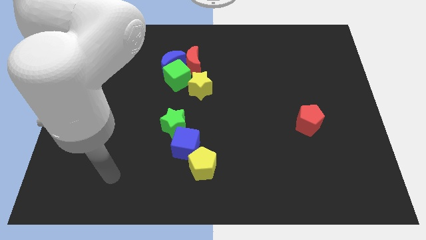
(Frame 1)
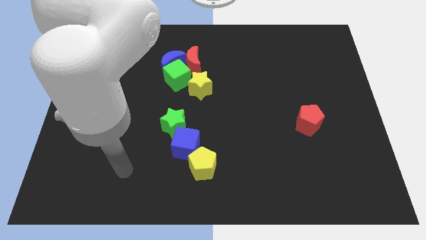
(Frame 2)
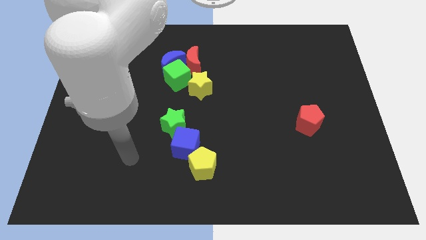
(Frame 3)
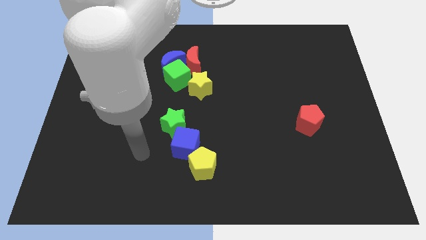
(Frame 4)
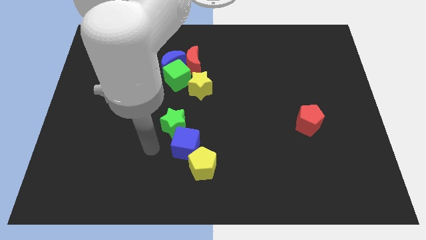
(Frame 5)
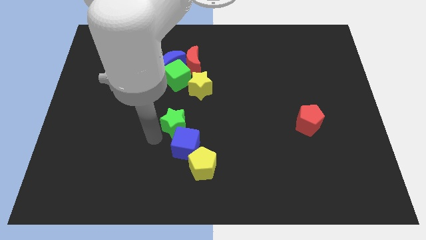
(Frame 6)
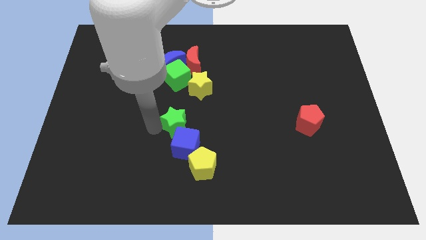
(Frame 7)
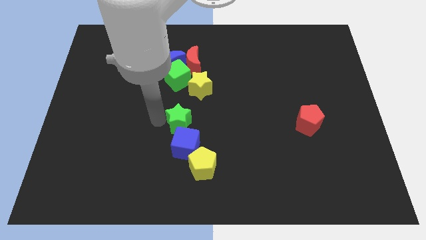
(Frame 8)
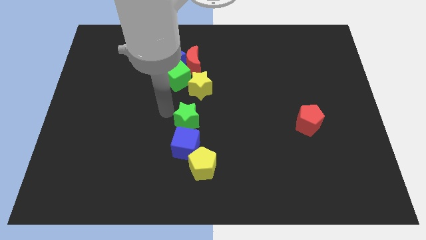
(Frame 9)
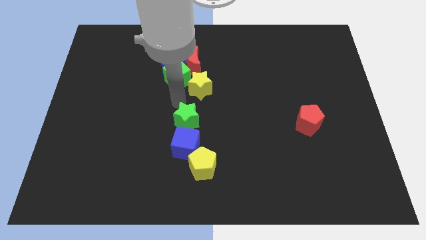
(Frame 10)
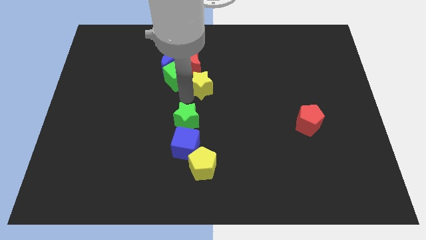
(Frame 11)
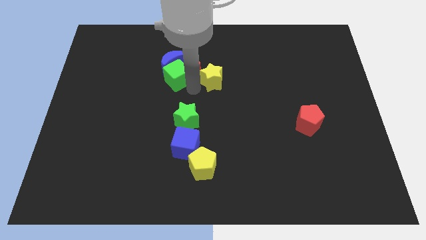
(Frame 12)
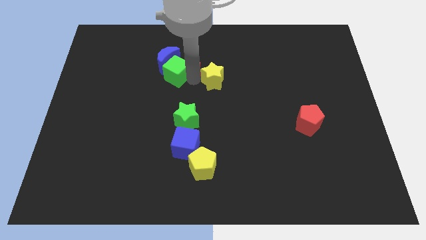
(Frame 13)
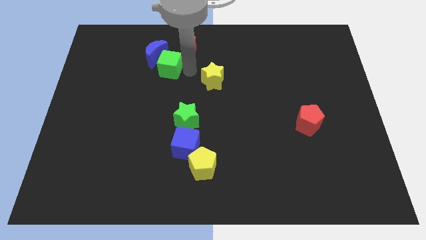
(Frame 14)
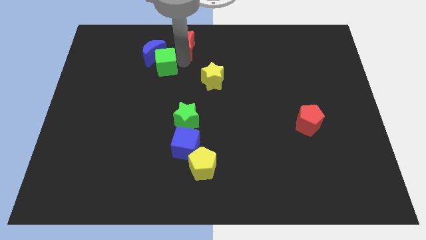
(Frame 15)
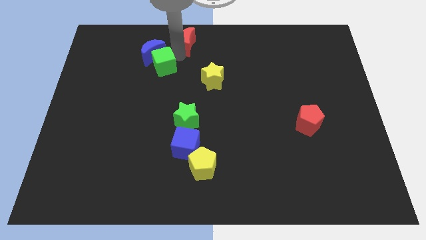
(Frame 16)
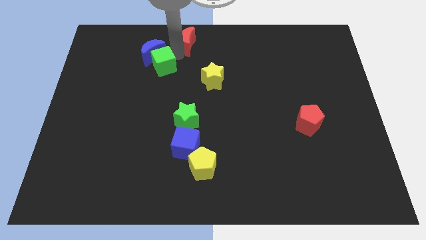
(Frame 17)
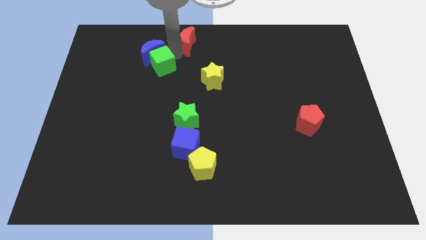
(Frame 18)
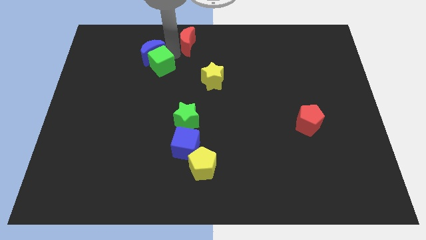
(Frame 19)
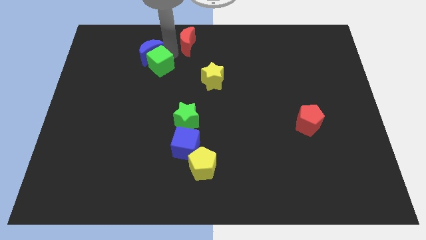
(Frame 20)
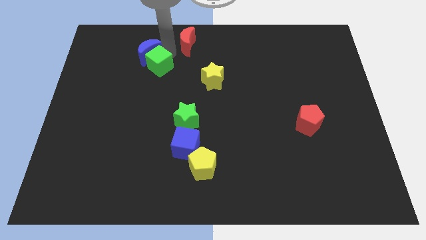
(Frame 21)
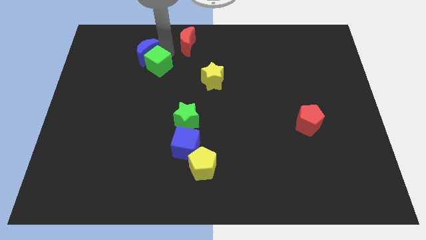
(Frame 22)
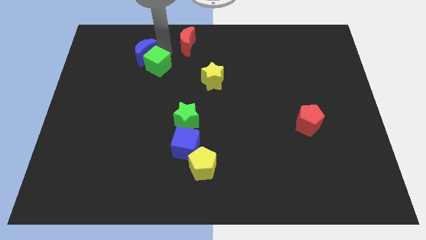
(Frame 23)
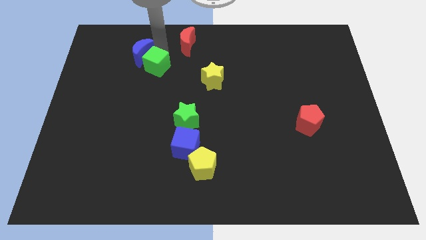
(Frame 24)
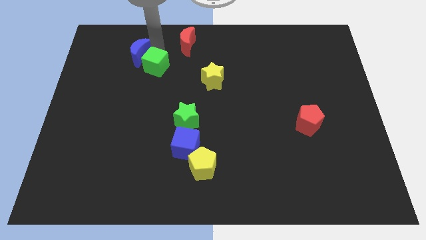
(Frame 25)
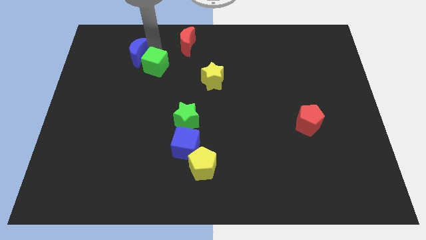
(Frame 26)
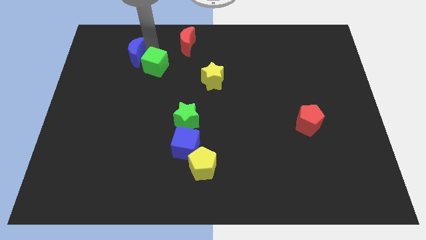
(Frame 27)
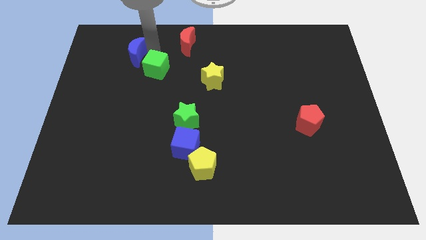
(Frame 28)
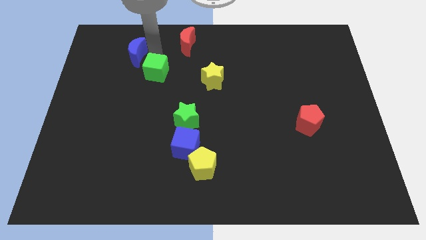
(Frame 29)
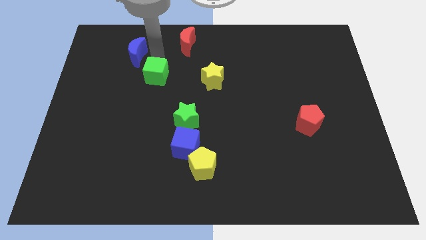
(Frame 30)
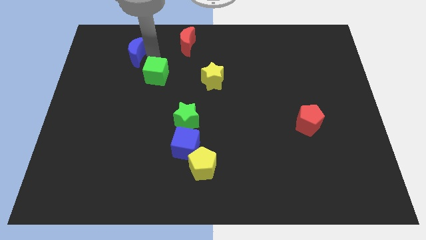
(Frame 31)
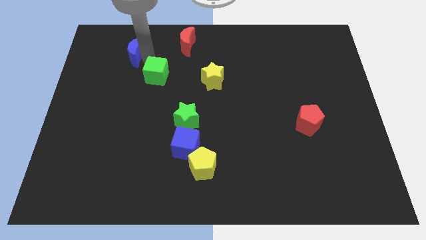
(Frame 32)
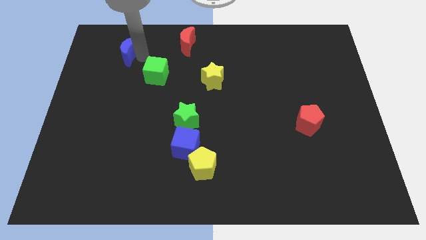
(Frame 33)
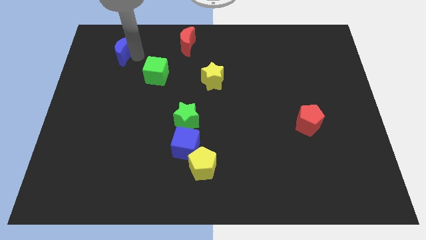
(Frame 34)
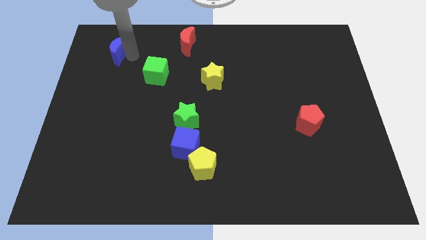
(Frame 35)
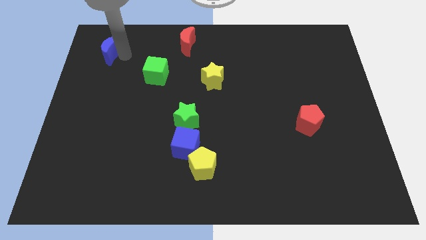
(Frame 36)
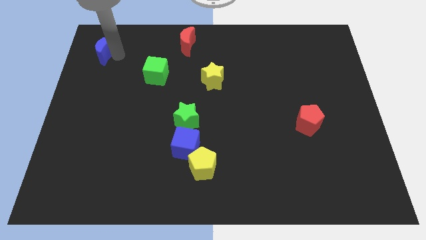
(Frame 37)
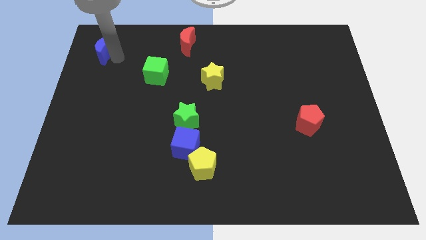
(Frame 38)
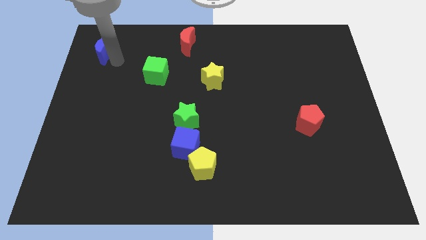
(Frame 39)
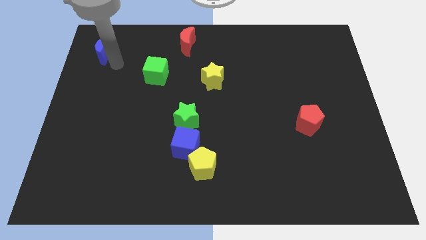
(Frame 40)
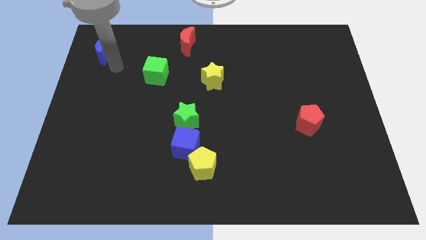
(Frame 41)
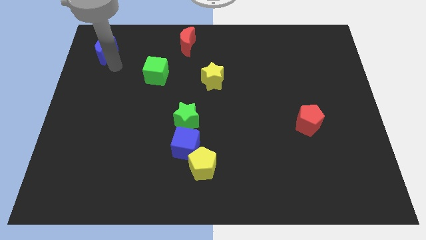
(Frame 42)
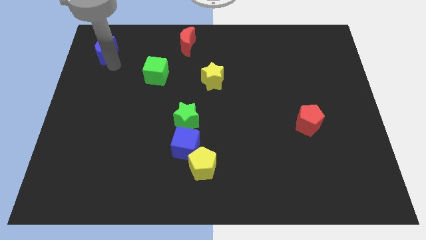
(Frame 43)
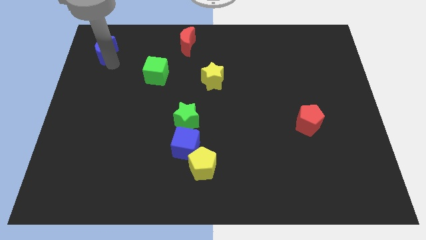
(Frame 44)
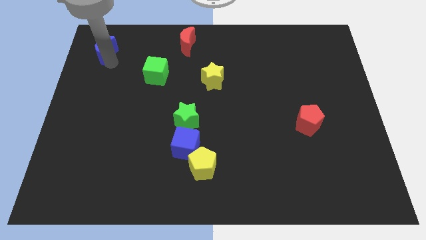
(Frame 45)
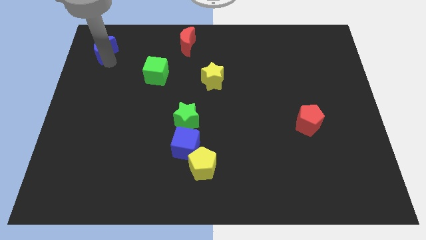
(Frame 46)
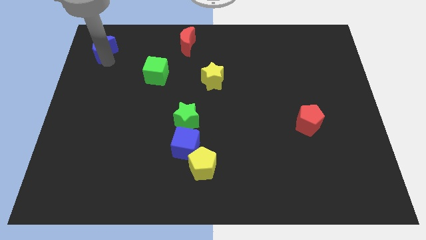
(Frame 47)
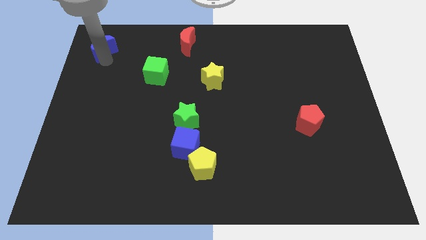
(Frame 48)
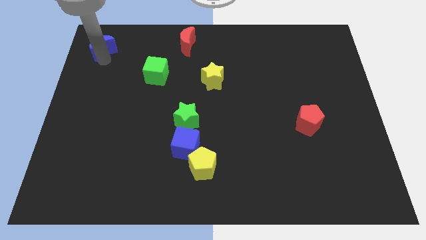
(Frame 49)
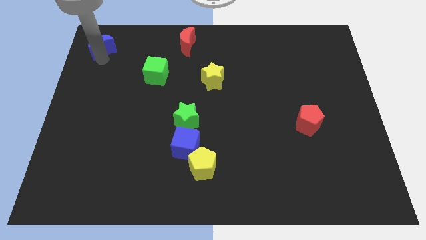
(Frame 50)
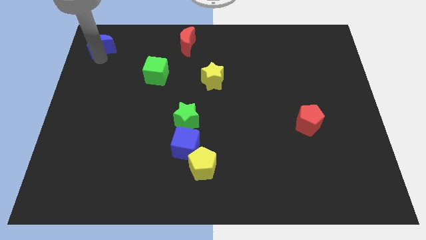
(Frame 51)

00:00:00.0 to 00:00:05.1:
put the blue moon to the upper left corner

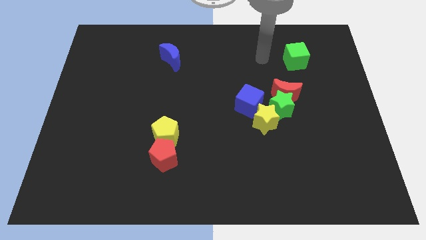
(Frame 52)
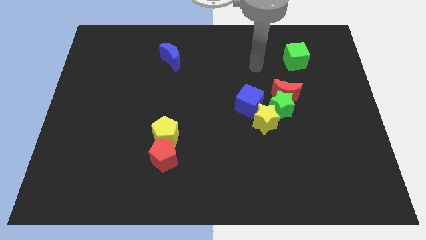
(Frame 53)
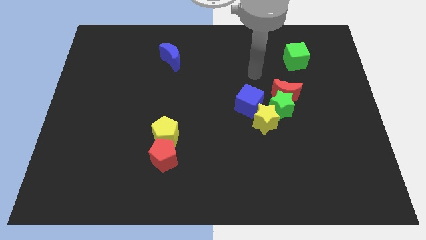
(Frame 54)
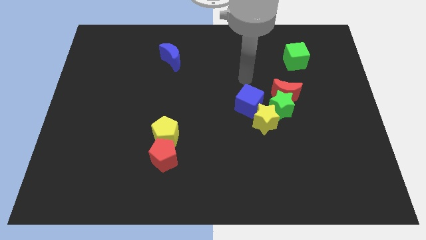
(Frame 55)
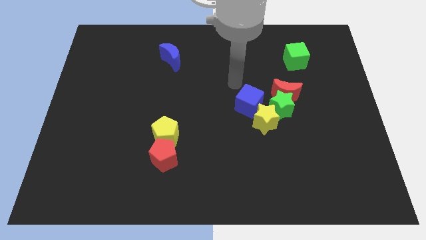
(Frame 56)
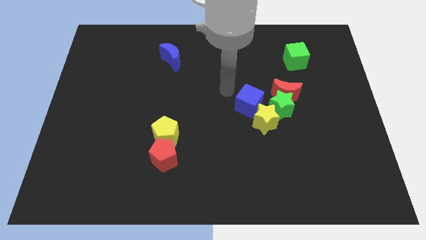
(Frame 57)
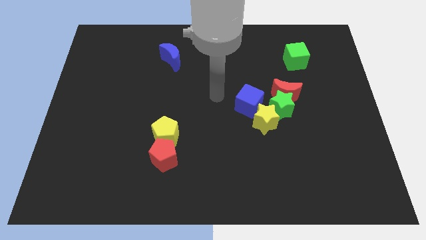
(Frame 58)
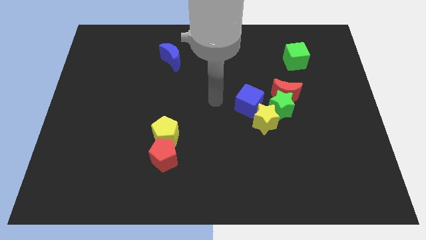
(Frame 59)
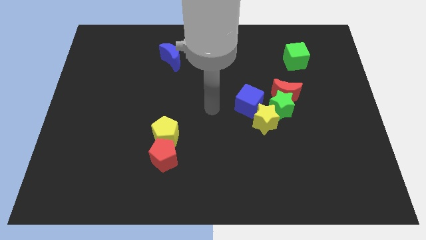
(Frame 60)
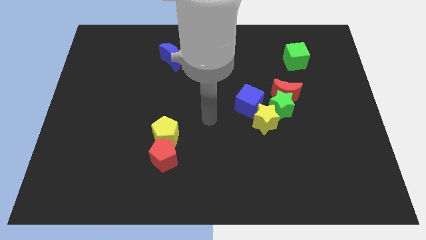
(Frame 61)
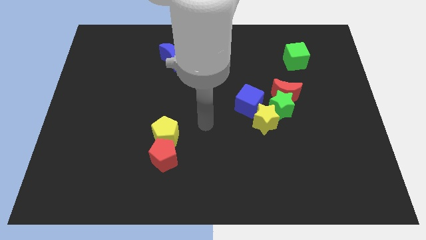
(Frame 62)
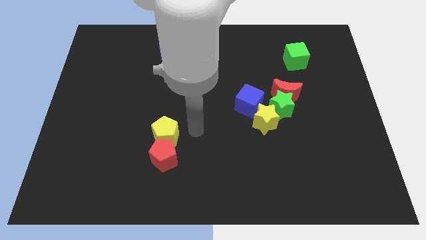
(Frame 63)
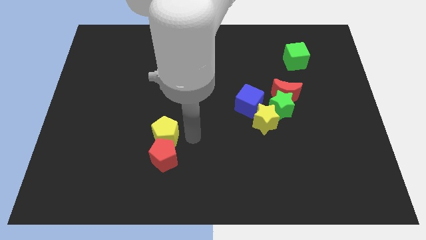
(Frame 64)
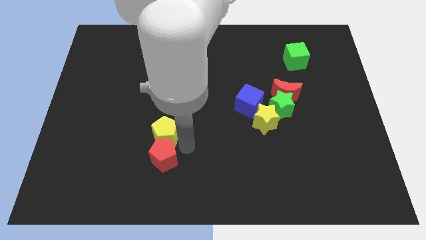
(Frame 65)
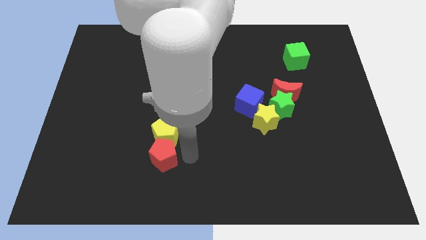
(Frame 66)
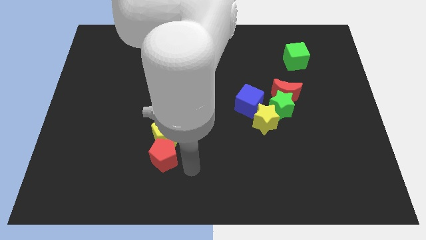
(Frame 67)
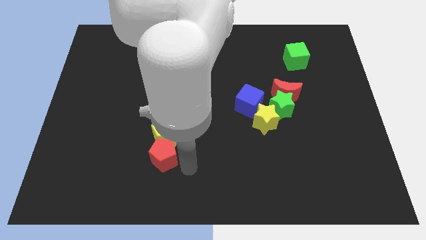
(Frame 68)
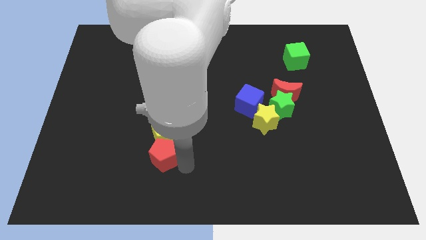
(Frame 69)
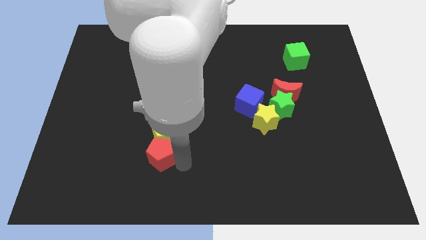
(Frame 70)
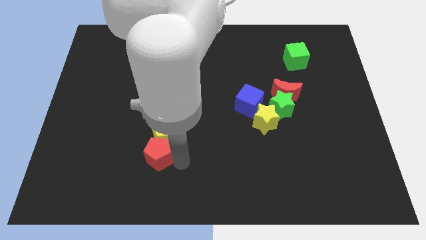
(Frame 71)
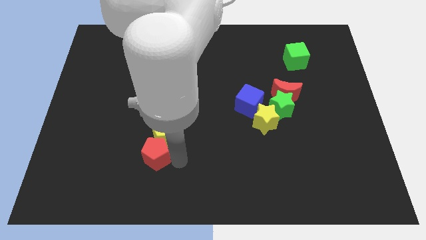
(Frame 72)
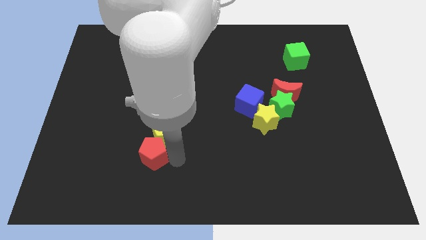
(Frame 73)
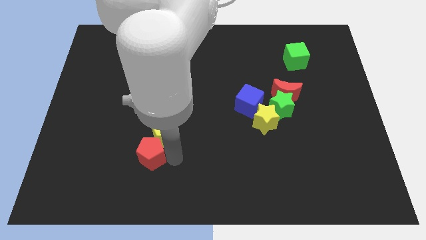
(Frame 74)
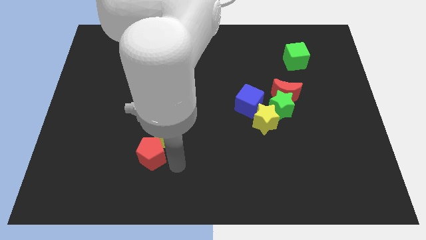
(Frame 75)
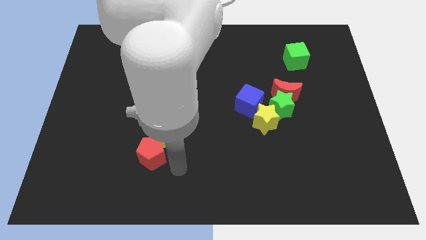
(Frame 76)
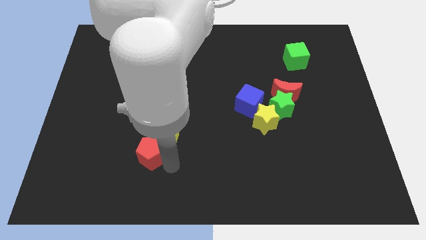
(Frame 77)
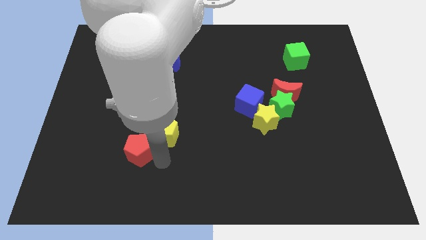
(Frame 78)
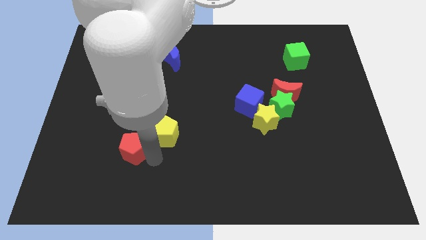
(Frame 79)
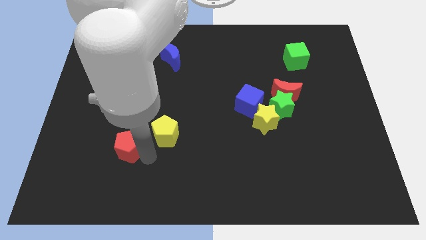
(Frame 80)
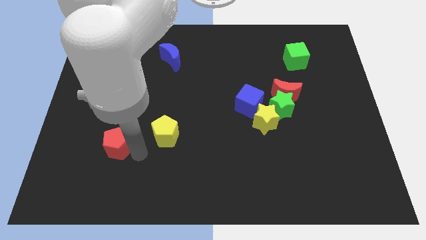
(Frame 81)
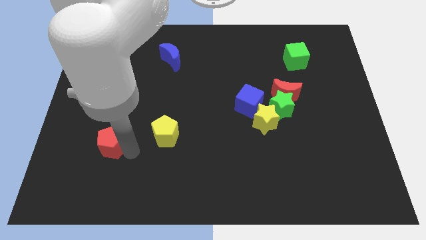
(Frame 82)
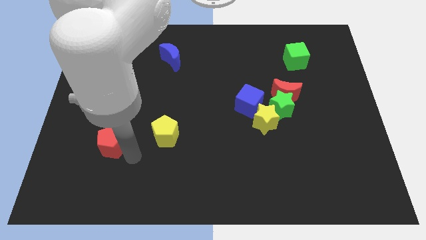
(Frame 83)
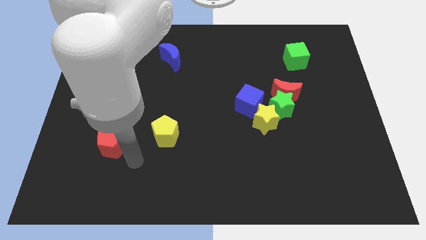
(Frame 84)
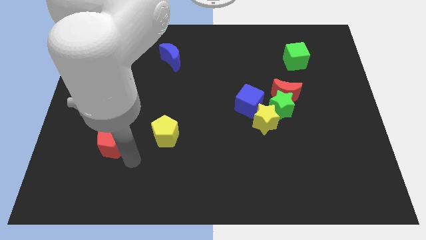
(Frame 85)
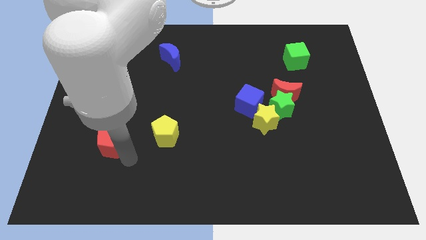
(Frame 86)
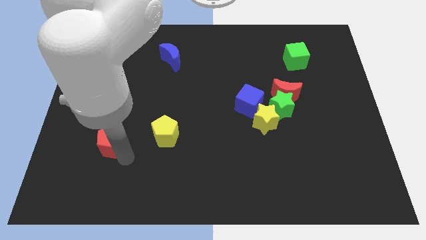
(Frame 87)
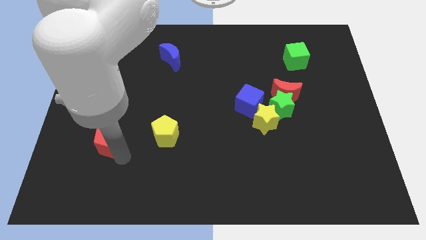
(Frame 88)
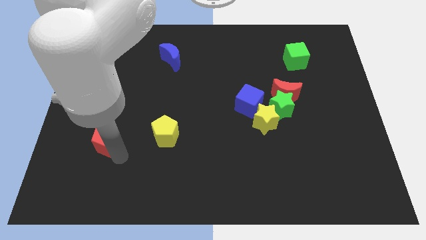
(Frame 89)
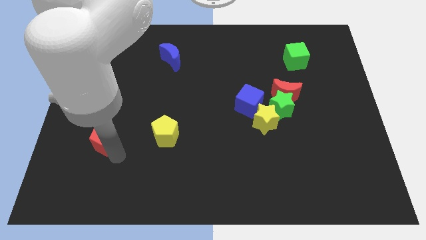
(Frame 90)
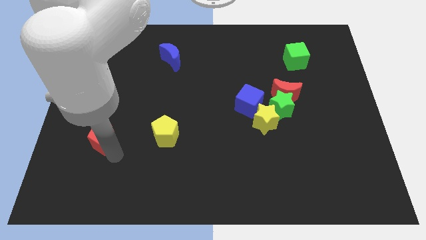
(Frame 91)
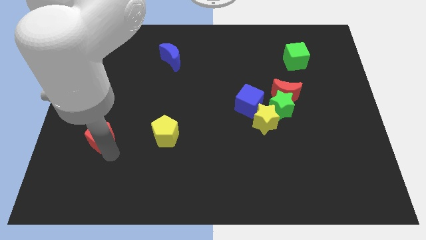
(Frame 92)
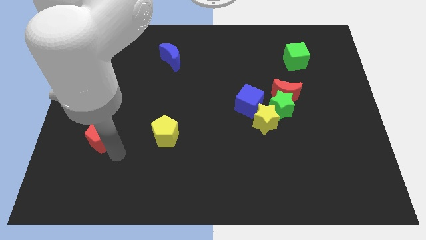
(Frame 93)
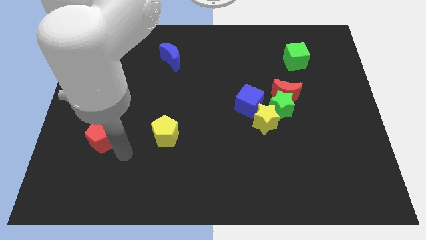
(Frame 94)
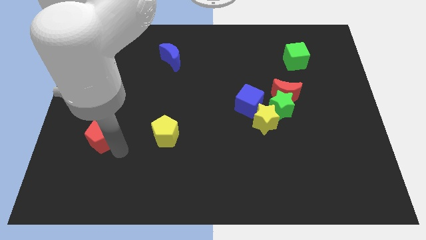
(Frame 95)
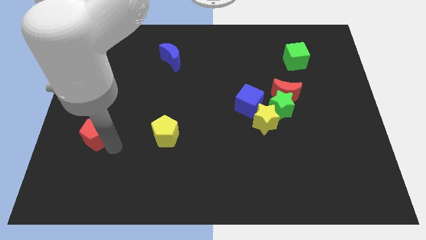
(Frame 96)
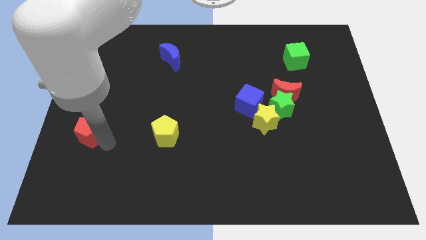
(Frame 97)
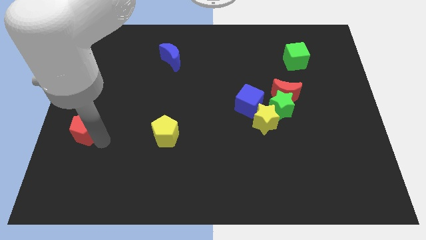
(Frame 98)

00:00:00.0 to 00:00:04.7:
move the red pentagon to the left side of the board
